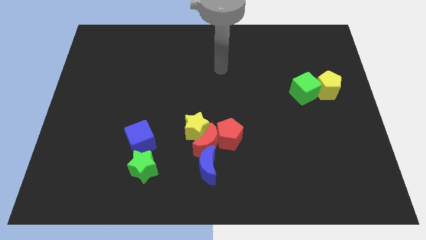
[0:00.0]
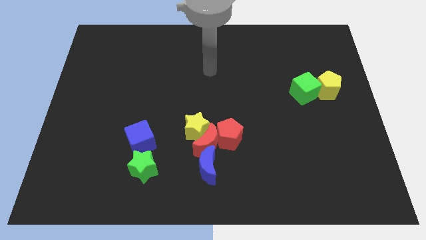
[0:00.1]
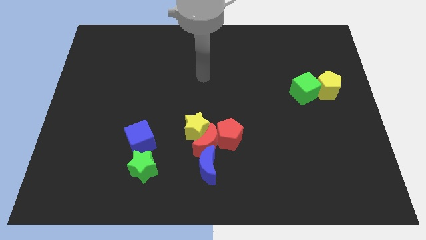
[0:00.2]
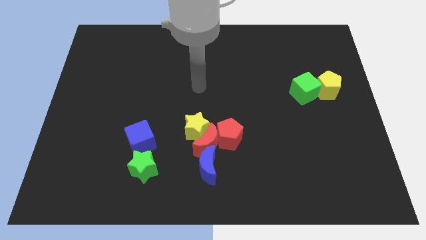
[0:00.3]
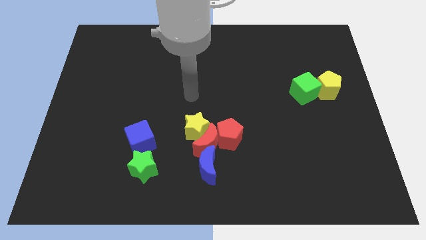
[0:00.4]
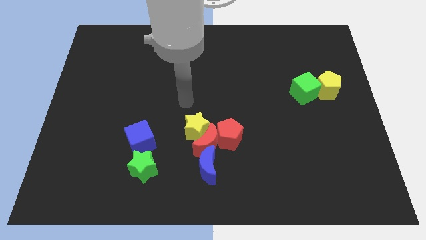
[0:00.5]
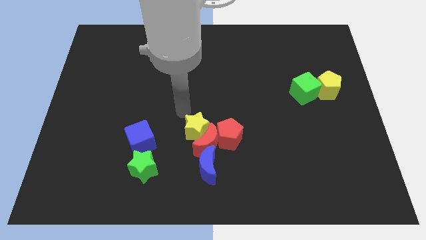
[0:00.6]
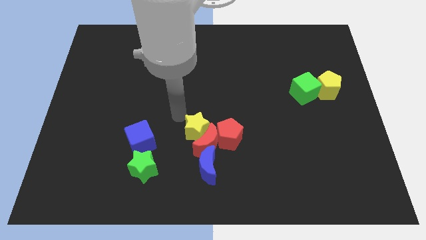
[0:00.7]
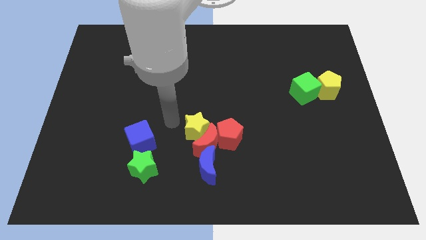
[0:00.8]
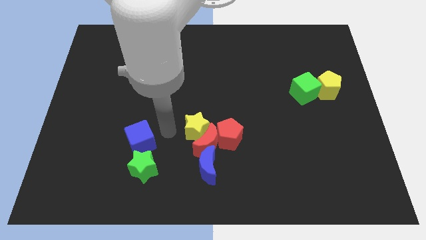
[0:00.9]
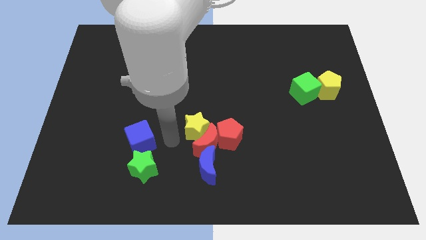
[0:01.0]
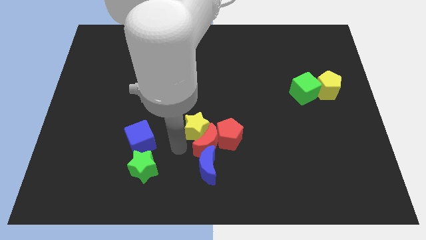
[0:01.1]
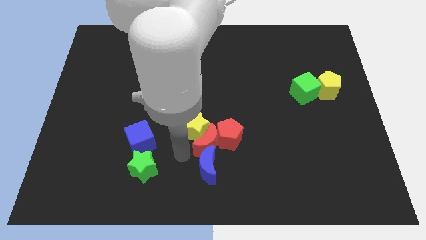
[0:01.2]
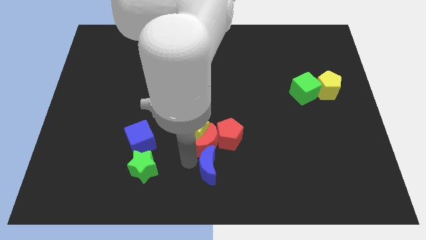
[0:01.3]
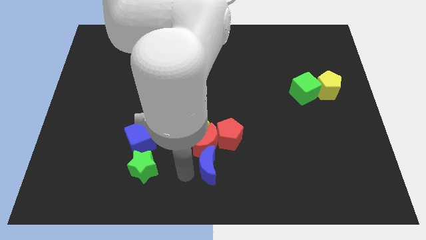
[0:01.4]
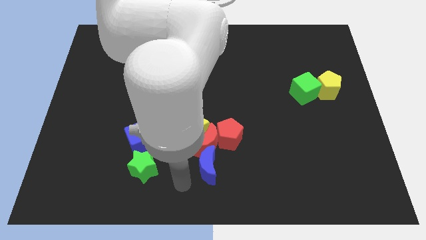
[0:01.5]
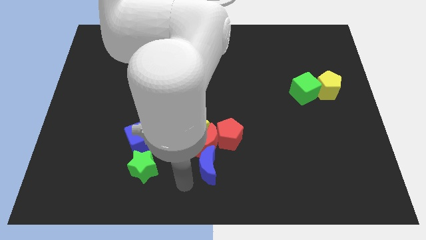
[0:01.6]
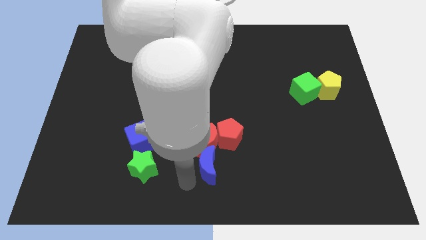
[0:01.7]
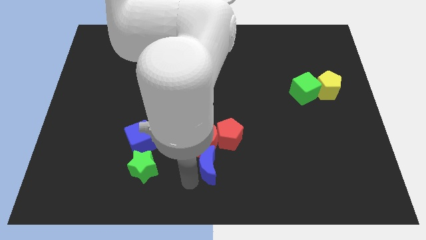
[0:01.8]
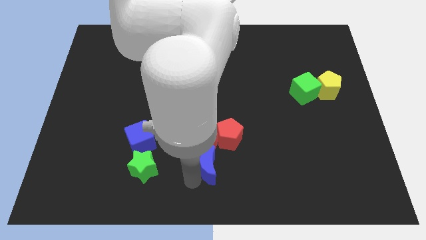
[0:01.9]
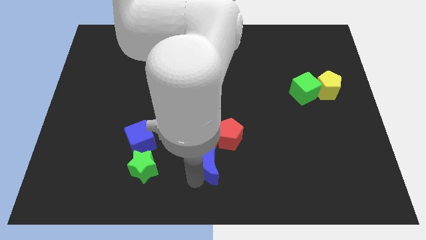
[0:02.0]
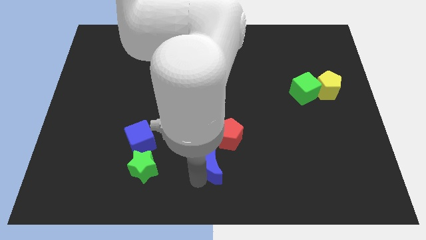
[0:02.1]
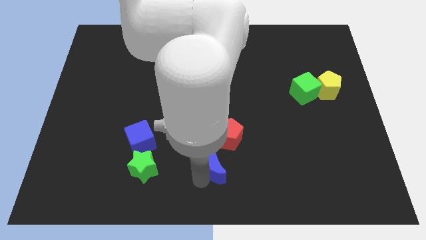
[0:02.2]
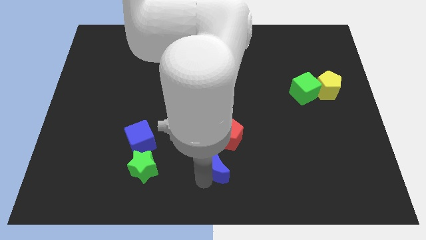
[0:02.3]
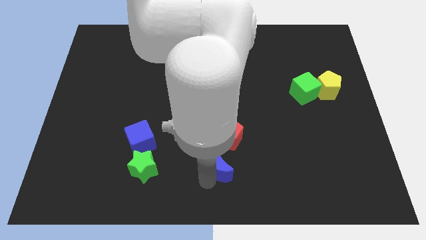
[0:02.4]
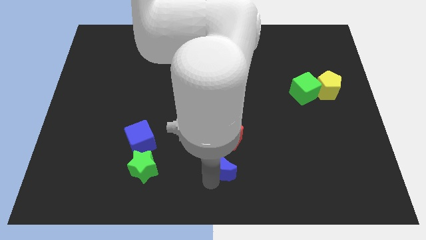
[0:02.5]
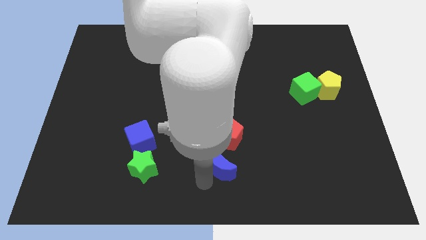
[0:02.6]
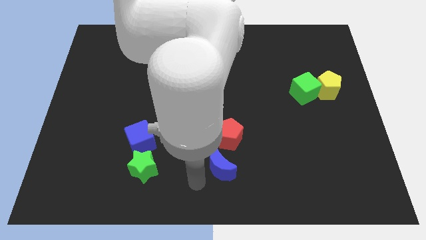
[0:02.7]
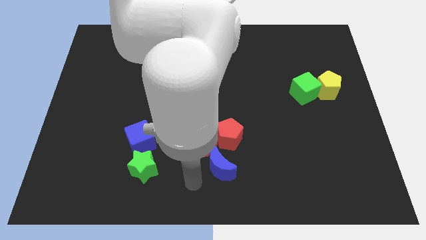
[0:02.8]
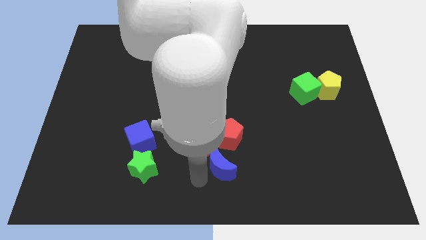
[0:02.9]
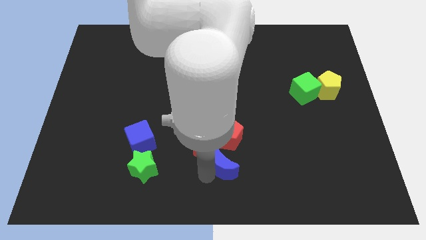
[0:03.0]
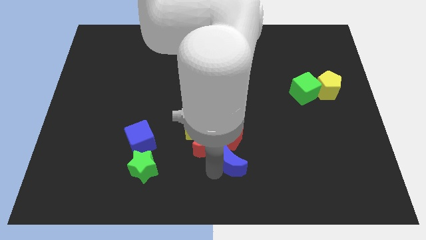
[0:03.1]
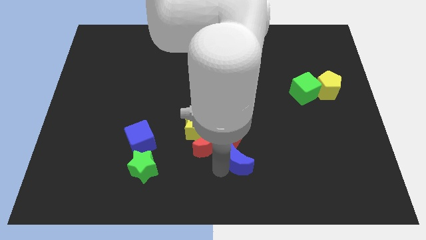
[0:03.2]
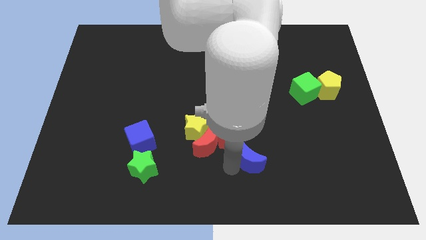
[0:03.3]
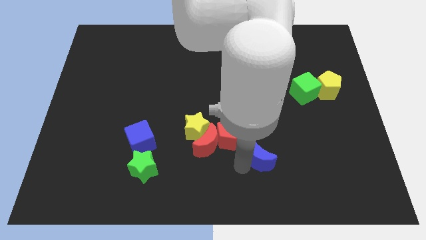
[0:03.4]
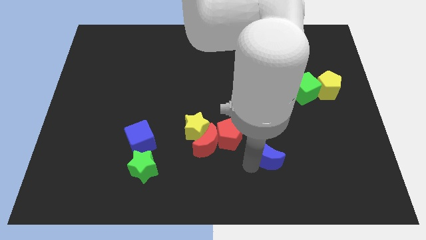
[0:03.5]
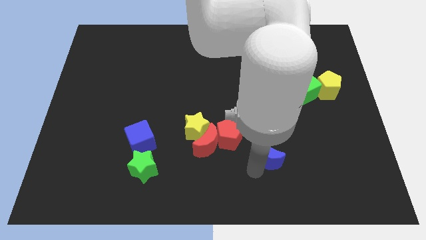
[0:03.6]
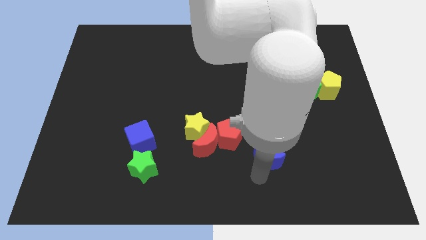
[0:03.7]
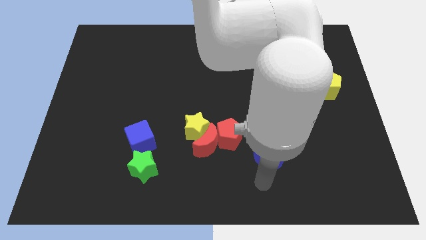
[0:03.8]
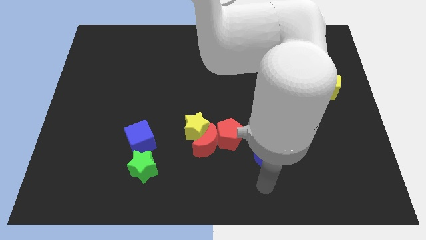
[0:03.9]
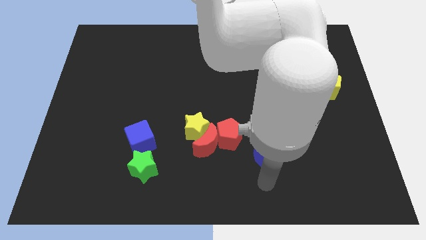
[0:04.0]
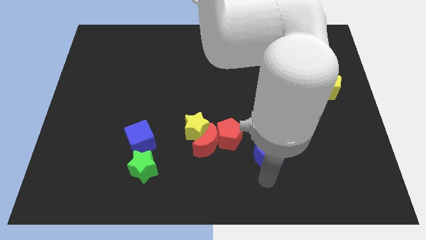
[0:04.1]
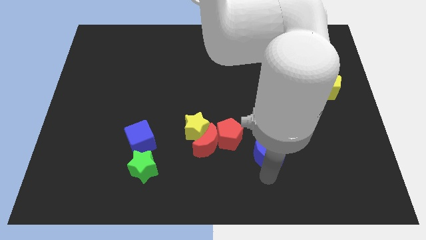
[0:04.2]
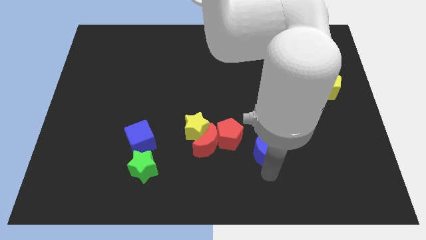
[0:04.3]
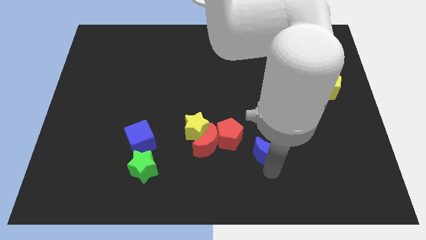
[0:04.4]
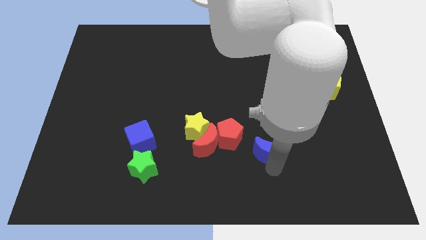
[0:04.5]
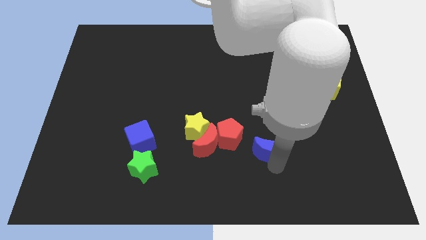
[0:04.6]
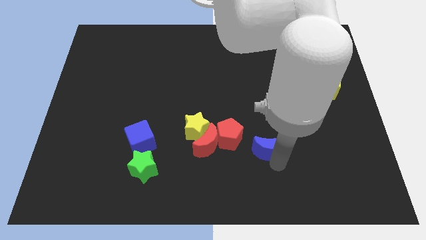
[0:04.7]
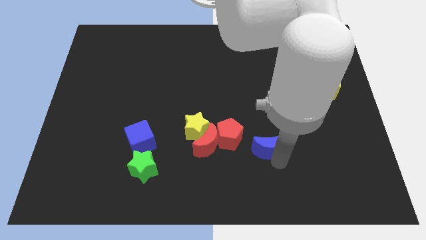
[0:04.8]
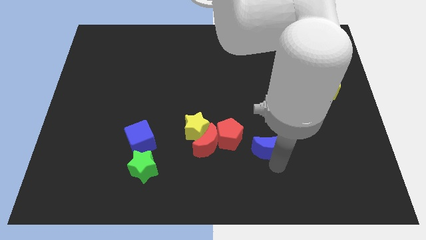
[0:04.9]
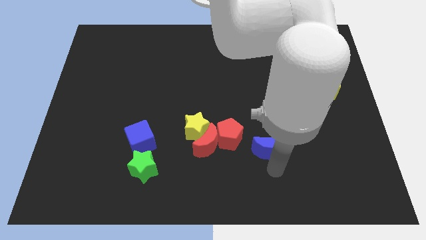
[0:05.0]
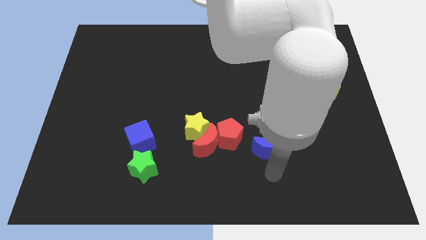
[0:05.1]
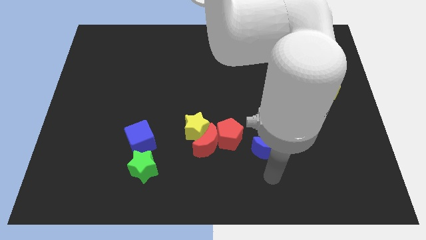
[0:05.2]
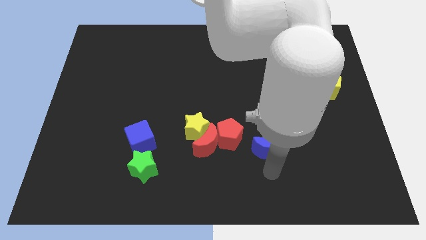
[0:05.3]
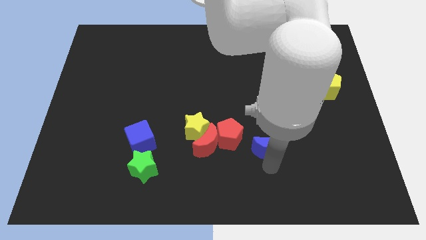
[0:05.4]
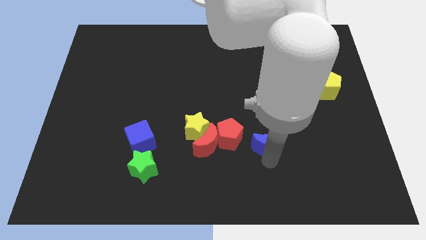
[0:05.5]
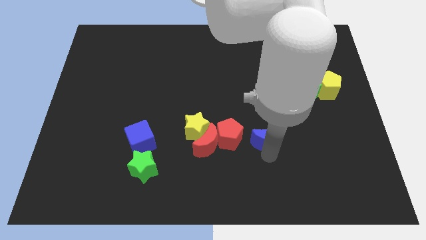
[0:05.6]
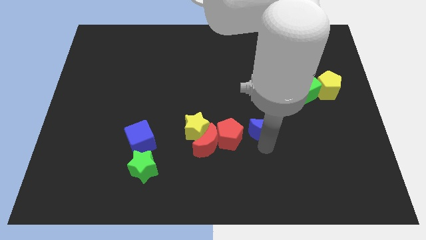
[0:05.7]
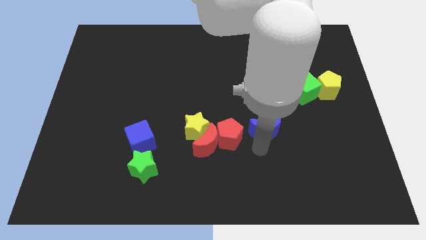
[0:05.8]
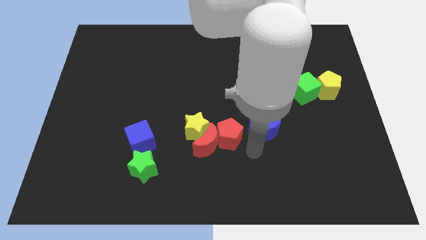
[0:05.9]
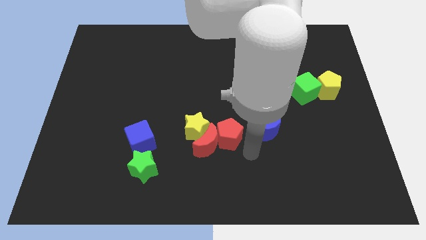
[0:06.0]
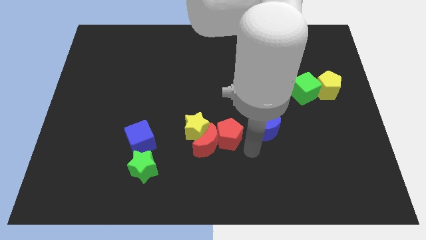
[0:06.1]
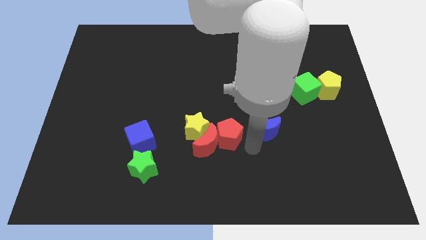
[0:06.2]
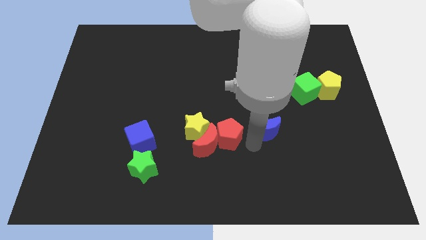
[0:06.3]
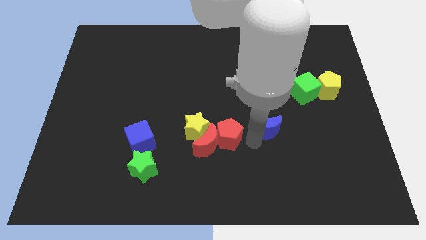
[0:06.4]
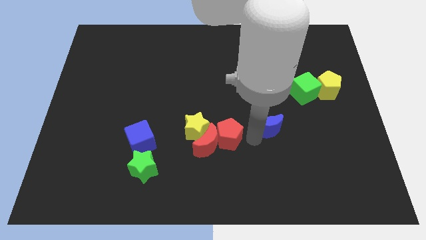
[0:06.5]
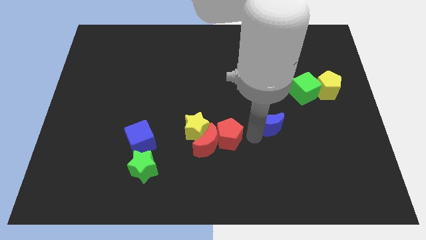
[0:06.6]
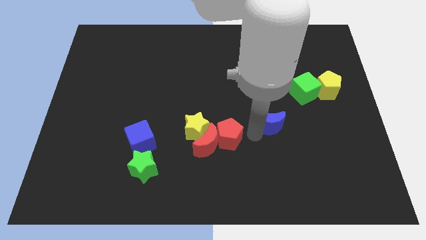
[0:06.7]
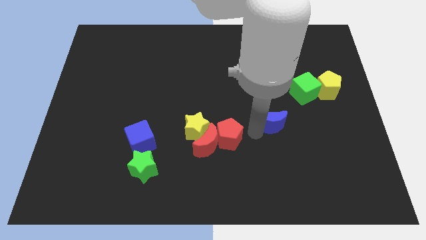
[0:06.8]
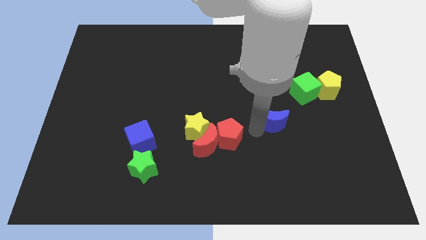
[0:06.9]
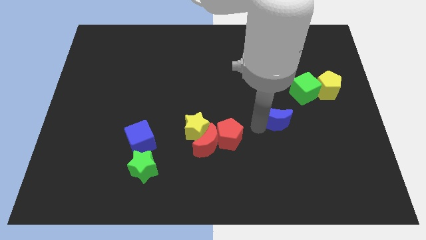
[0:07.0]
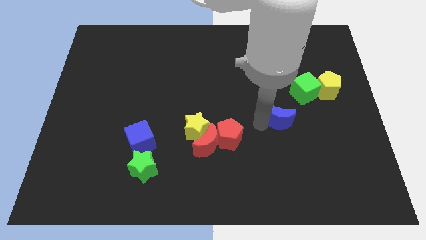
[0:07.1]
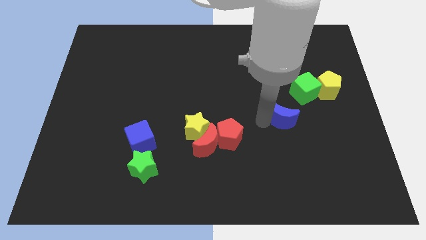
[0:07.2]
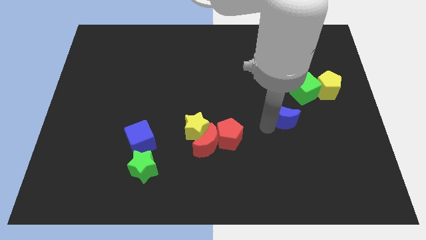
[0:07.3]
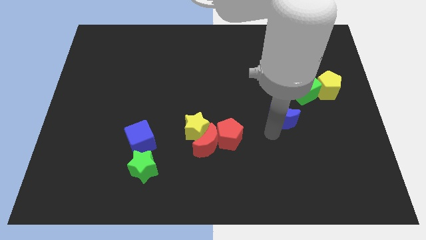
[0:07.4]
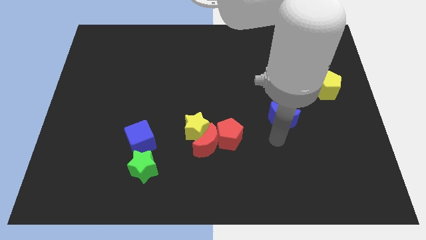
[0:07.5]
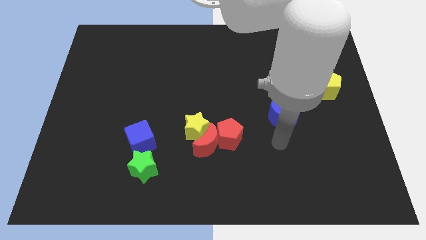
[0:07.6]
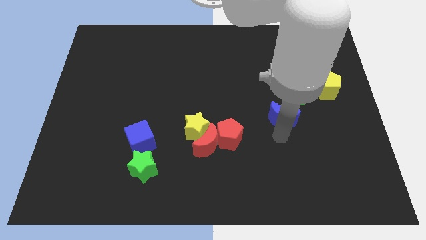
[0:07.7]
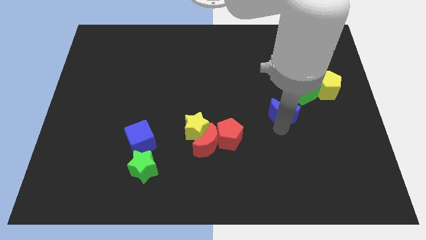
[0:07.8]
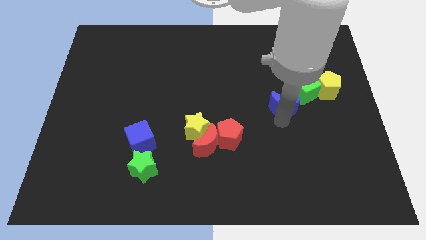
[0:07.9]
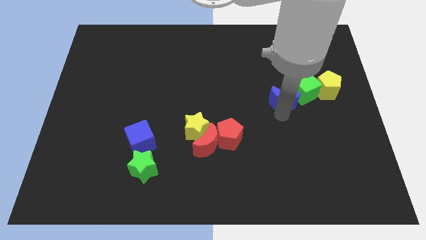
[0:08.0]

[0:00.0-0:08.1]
slide the blue moon left of the yellow pentagon

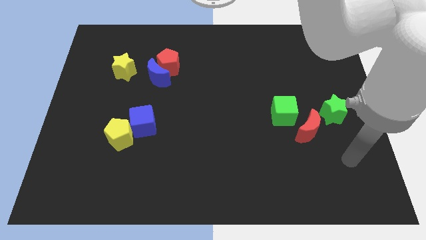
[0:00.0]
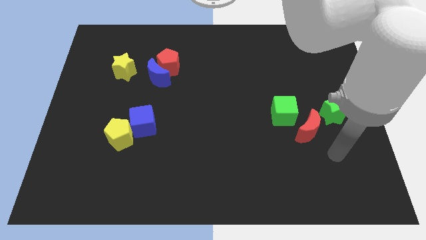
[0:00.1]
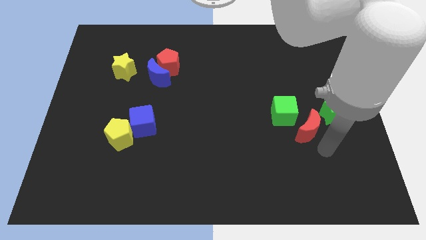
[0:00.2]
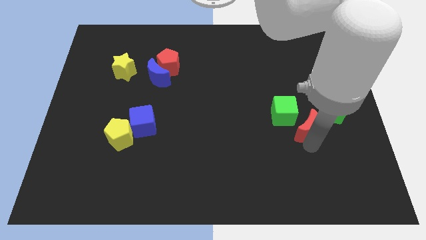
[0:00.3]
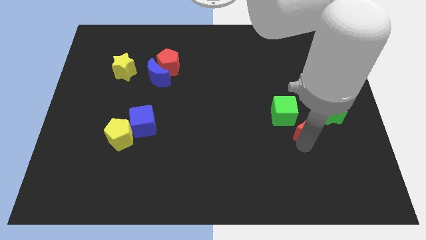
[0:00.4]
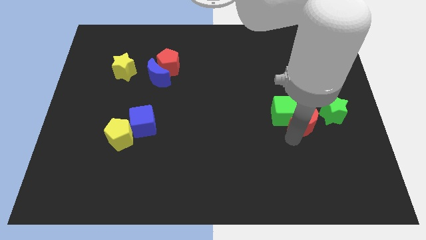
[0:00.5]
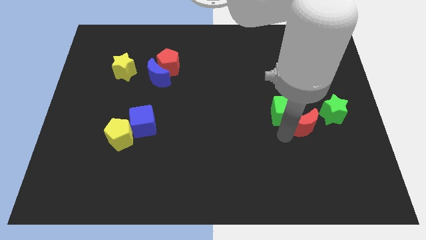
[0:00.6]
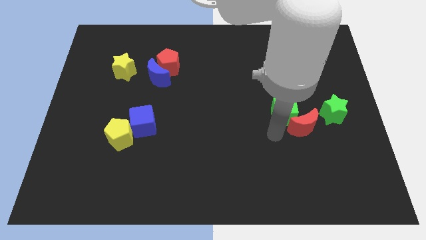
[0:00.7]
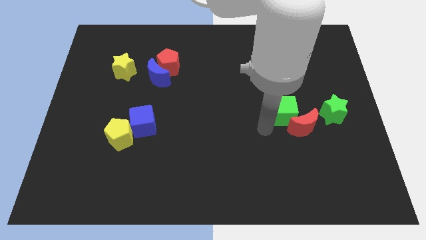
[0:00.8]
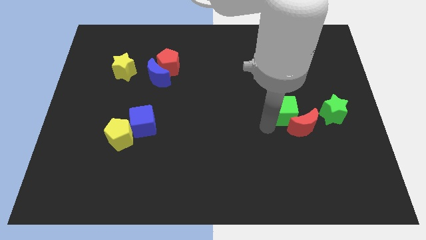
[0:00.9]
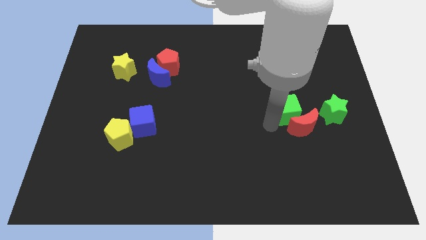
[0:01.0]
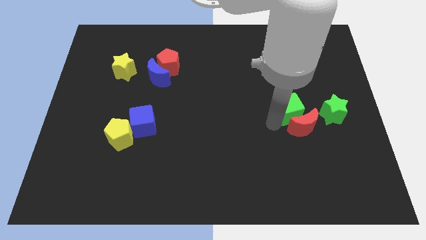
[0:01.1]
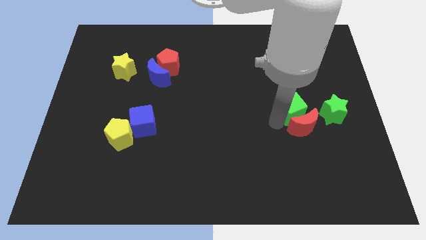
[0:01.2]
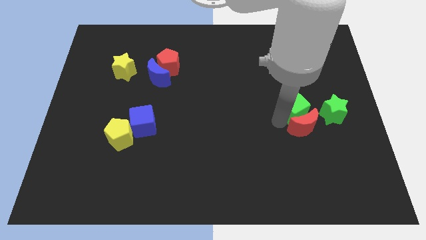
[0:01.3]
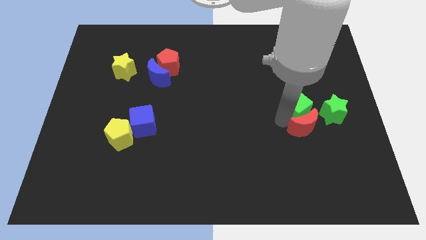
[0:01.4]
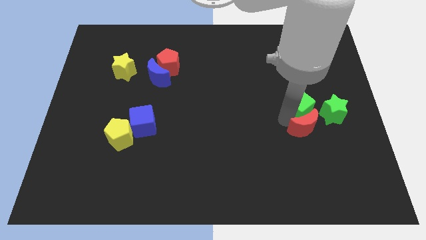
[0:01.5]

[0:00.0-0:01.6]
push the green cube diagonally up and to the left of the green star
